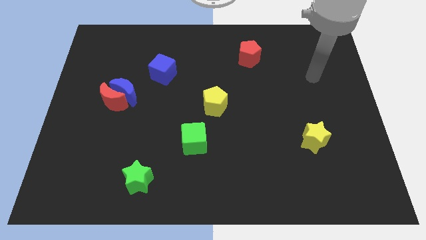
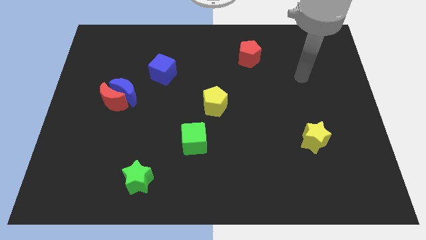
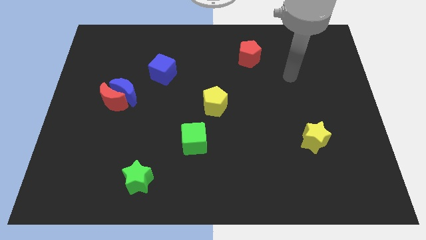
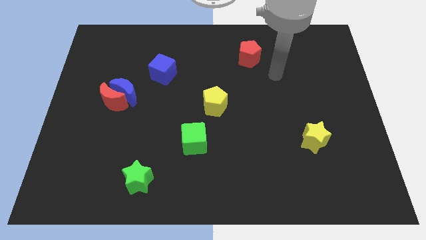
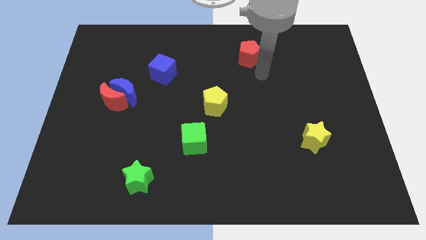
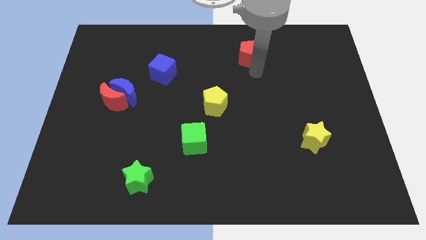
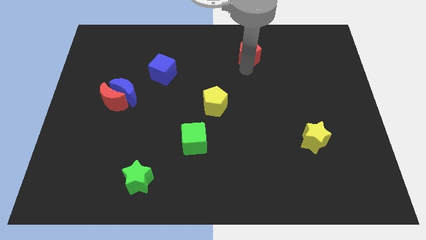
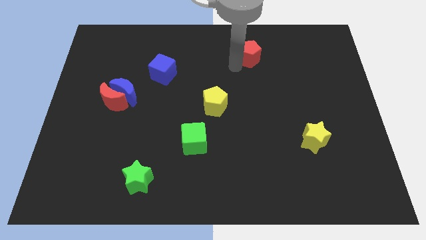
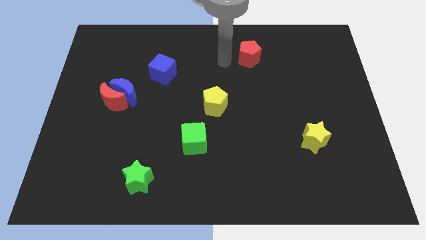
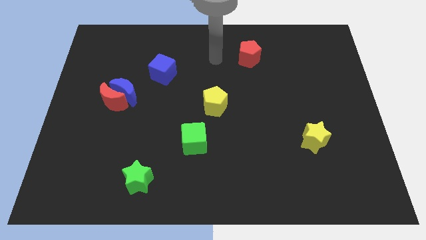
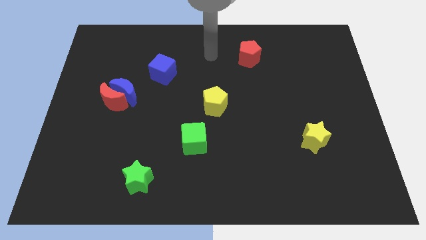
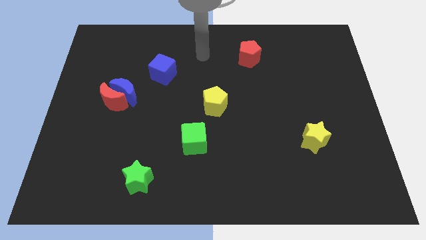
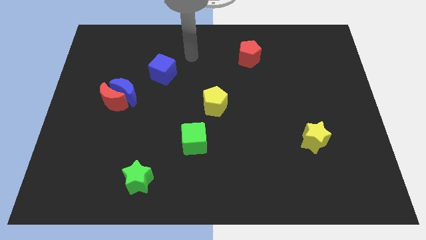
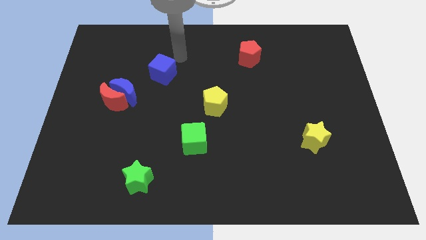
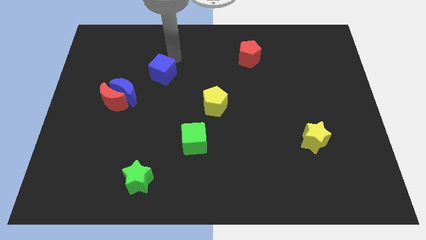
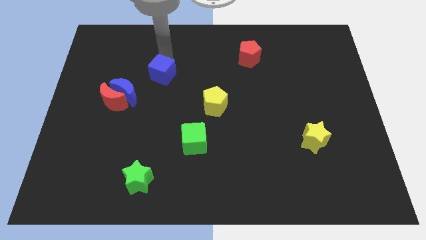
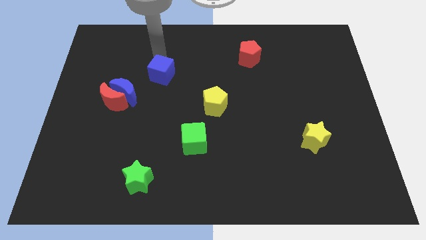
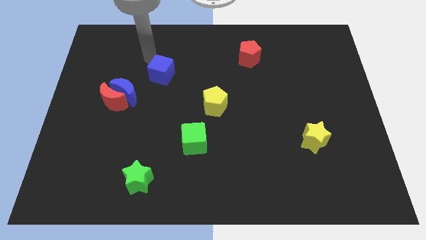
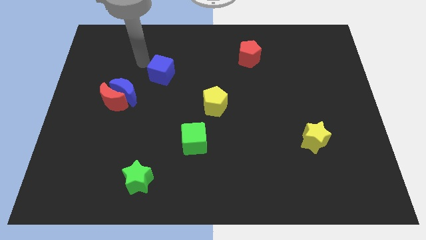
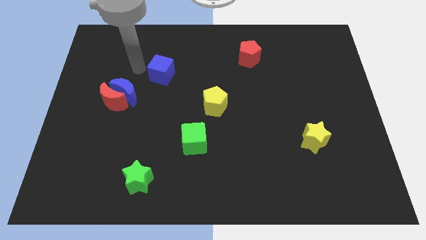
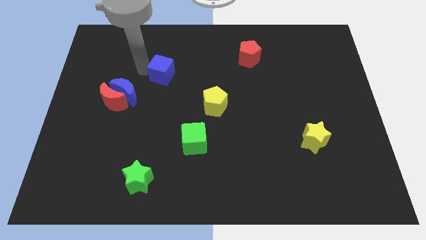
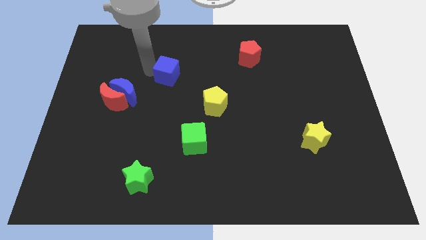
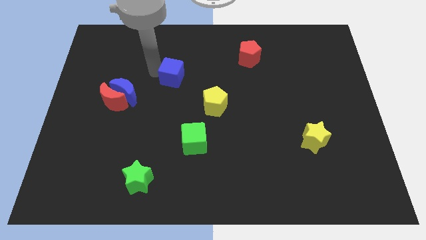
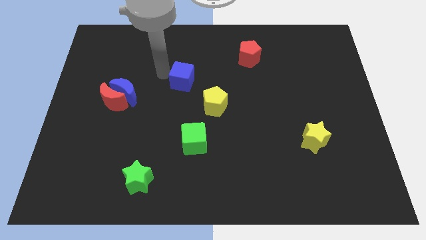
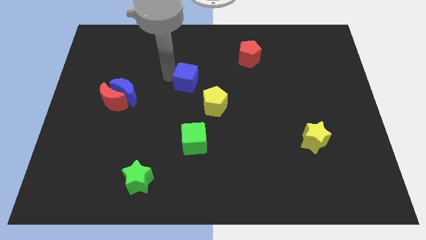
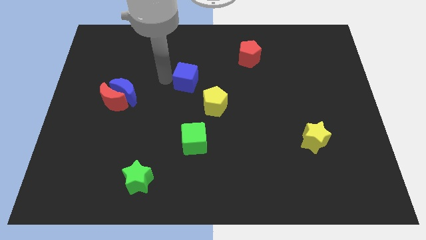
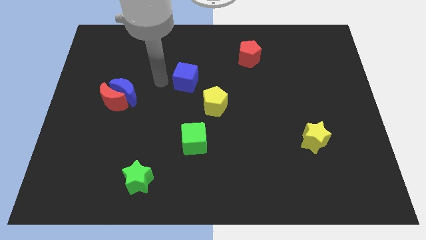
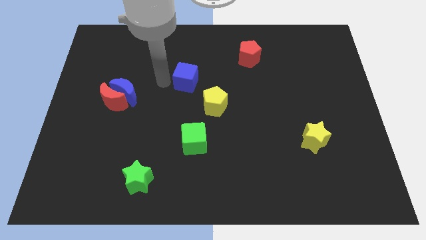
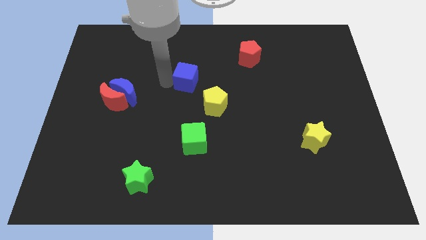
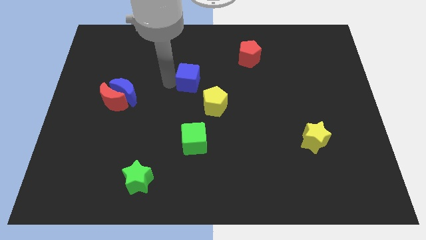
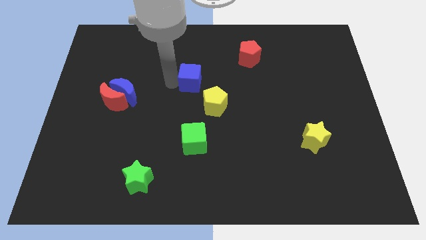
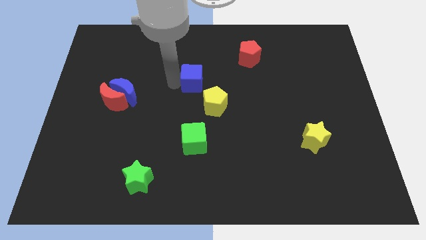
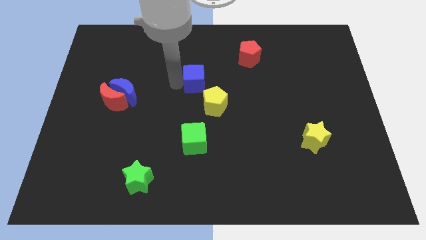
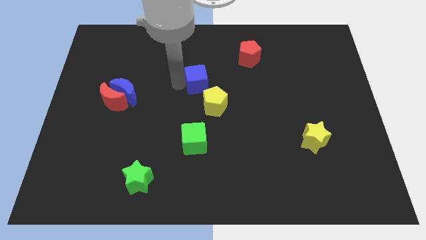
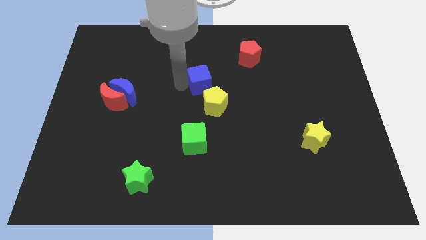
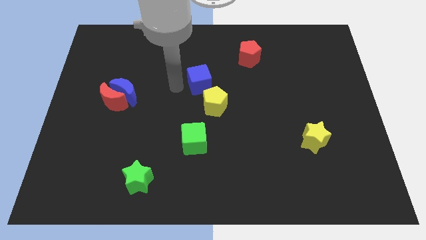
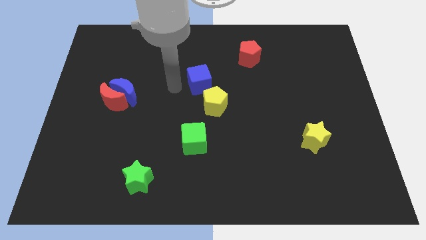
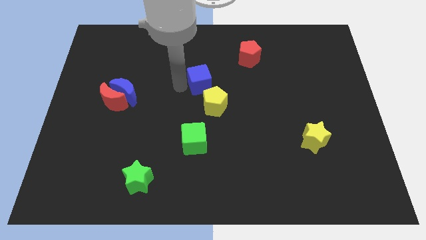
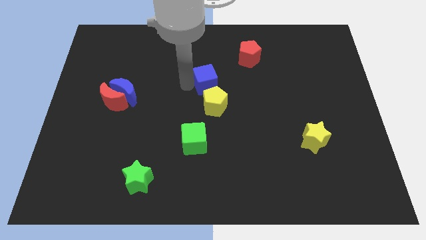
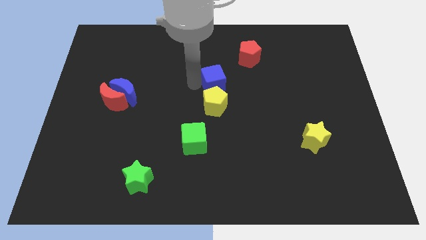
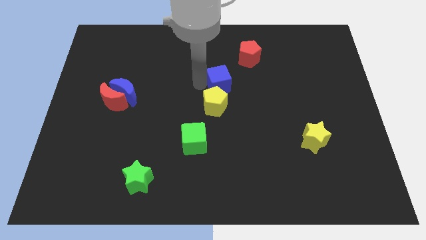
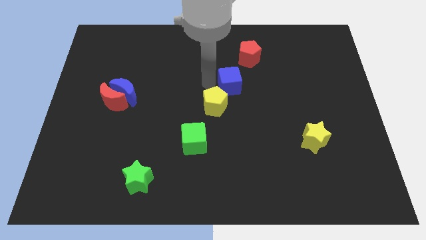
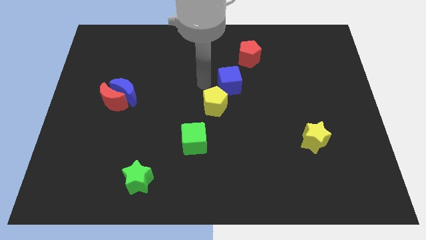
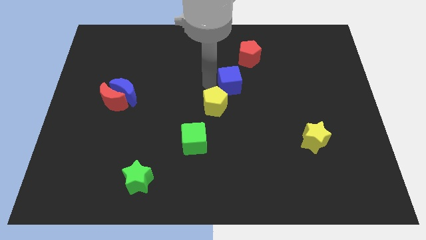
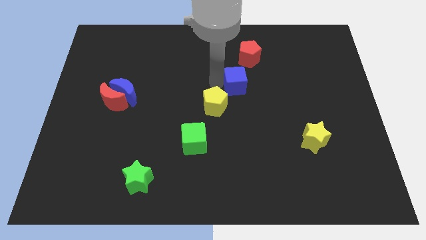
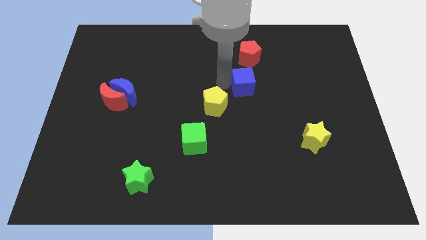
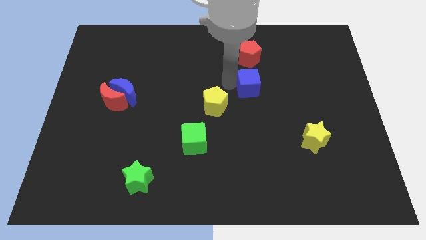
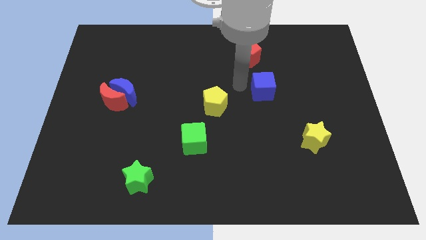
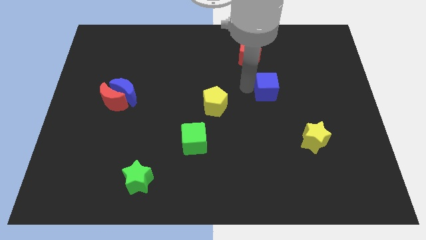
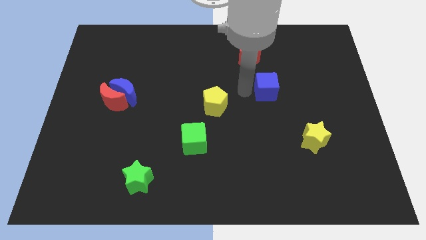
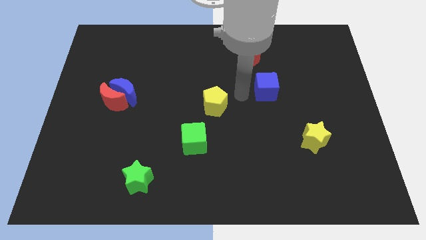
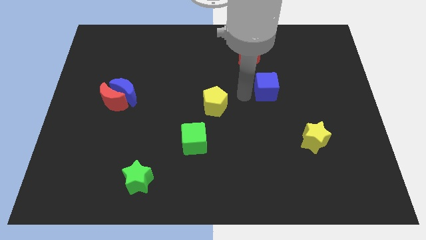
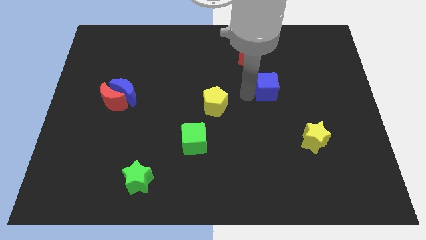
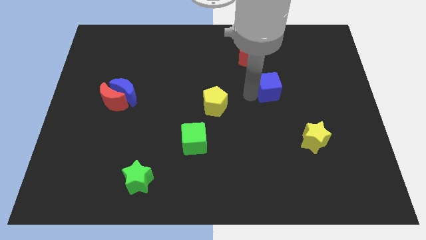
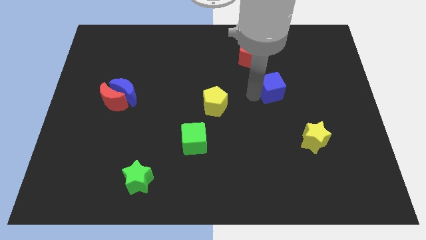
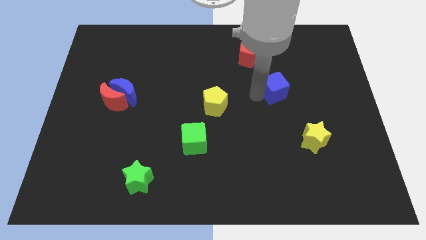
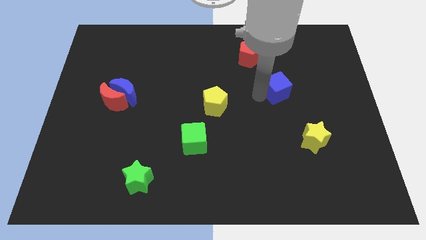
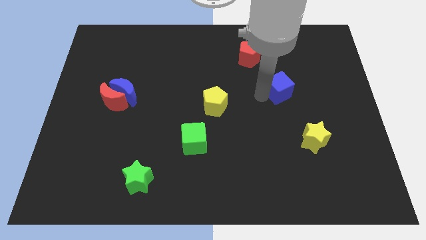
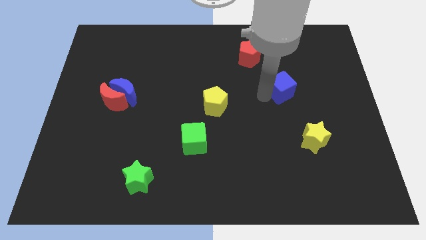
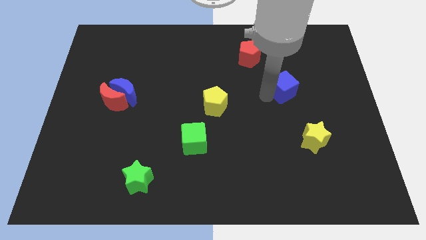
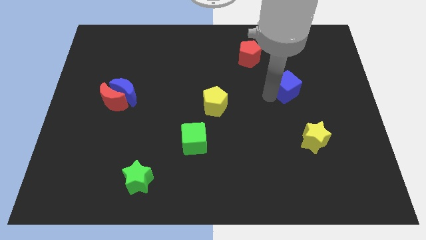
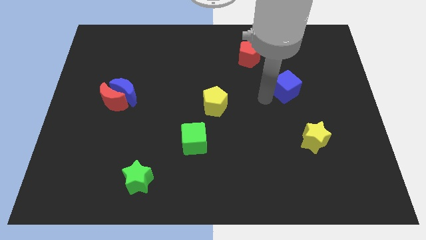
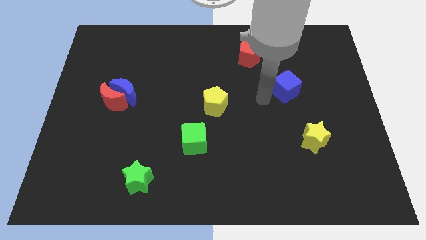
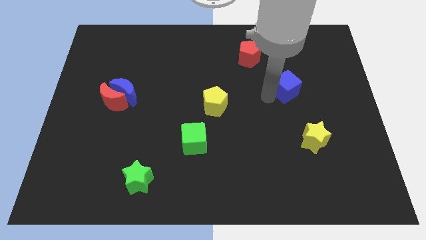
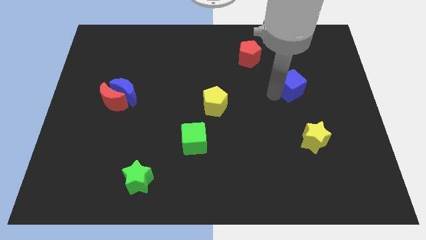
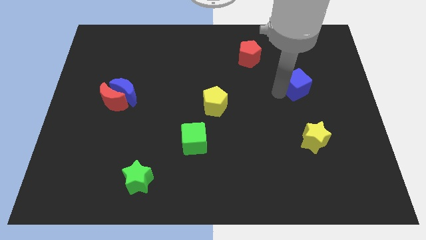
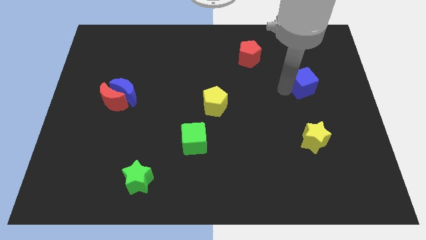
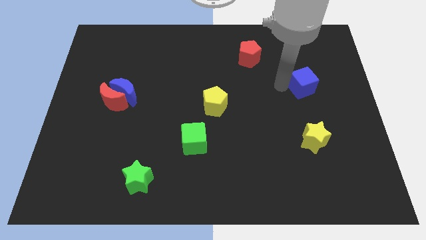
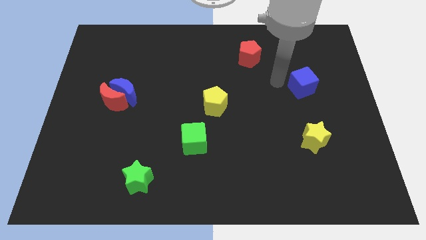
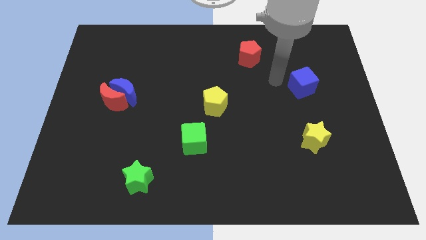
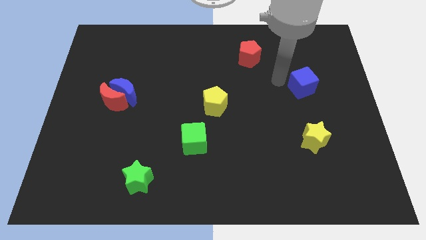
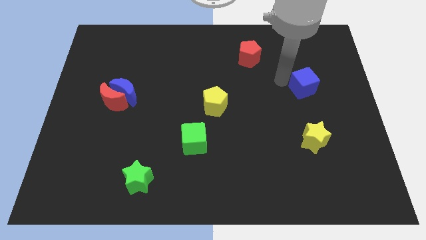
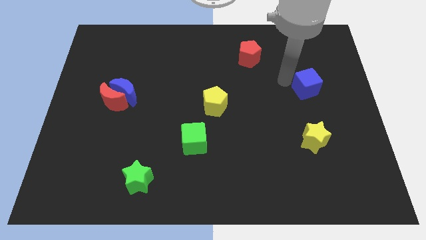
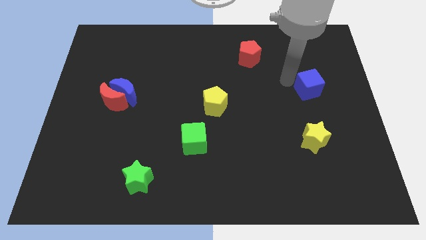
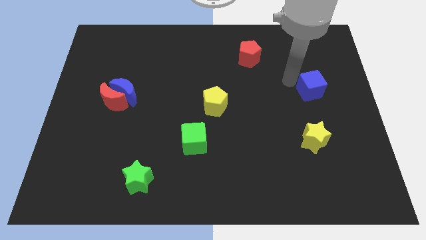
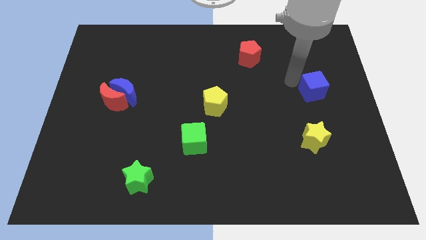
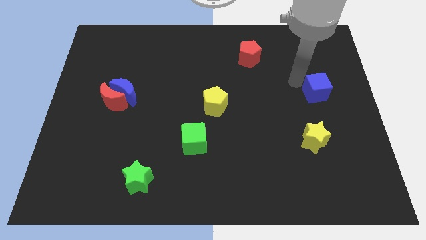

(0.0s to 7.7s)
push the blue cube to the right side
